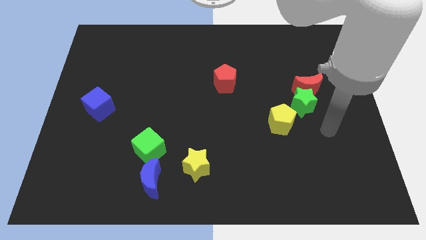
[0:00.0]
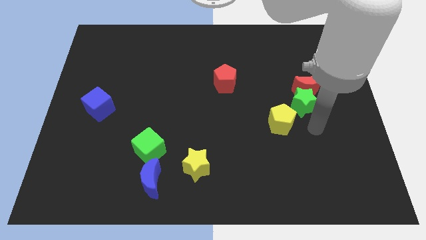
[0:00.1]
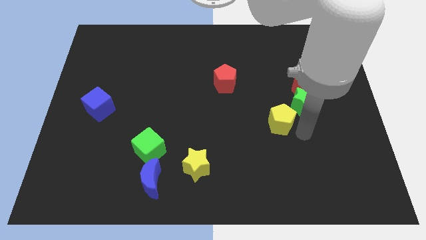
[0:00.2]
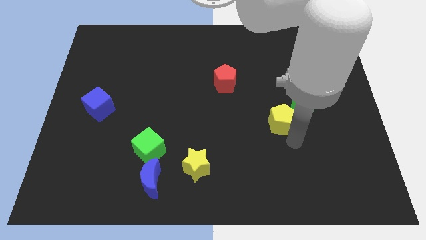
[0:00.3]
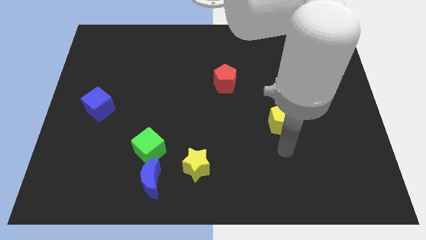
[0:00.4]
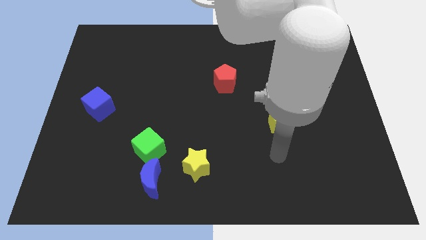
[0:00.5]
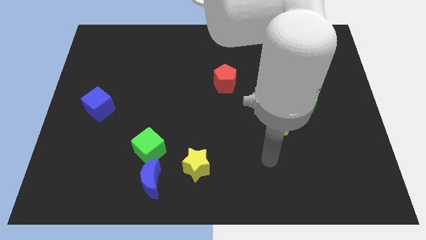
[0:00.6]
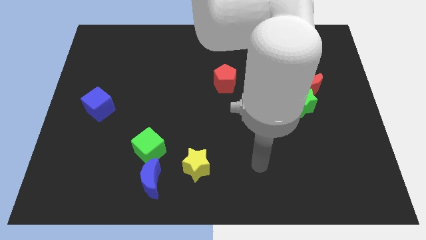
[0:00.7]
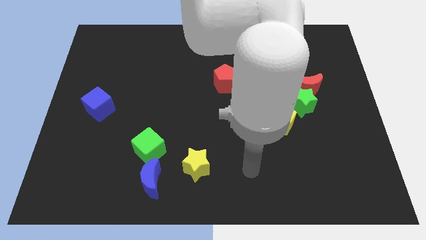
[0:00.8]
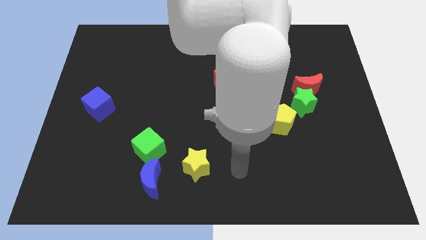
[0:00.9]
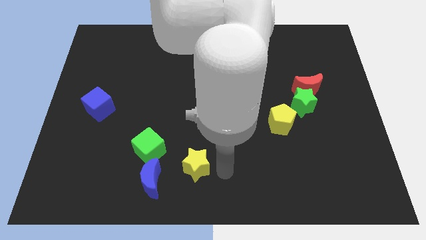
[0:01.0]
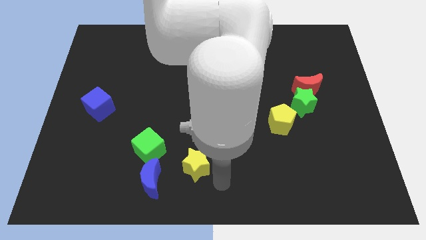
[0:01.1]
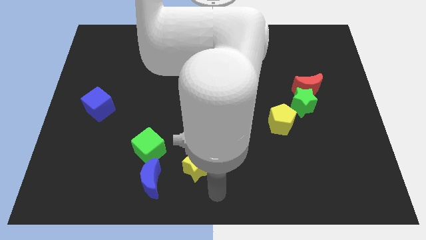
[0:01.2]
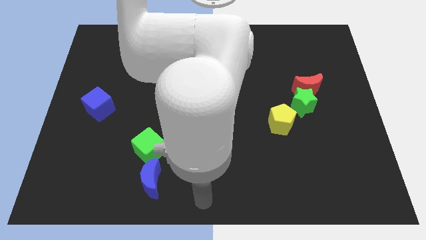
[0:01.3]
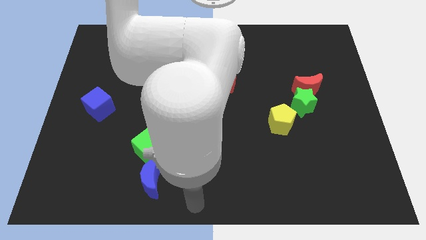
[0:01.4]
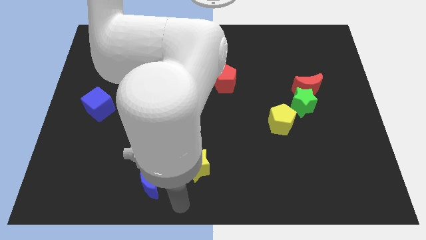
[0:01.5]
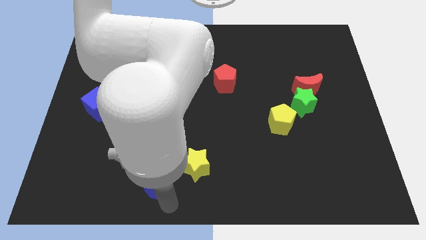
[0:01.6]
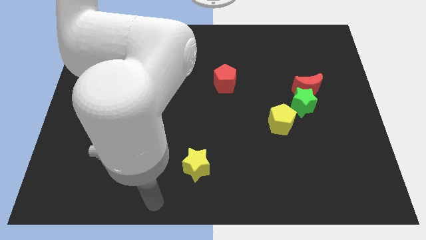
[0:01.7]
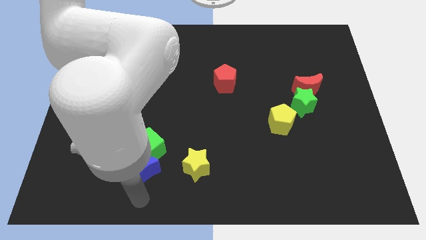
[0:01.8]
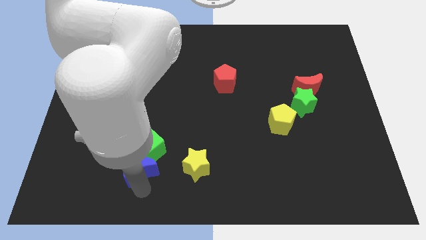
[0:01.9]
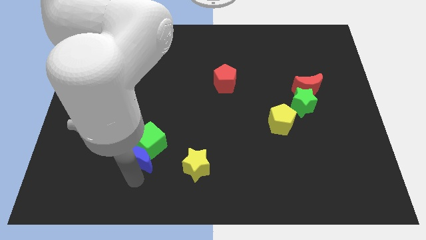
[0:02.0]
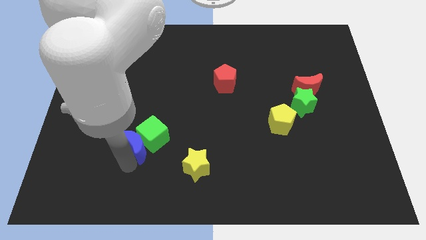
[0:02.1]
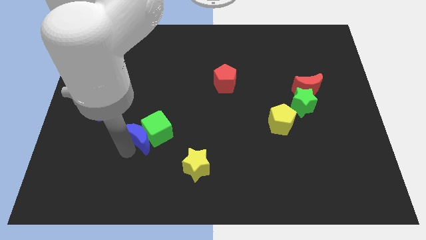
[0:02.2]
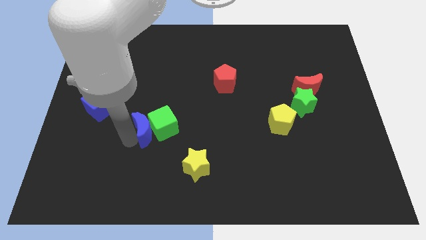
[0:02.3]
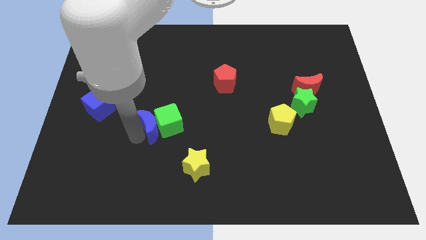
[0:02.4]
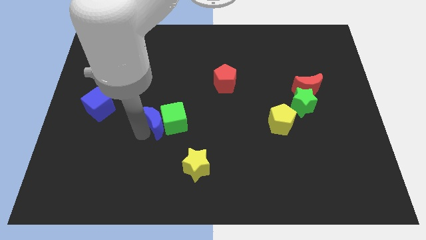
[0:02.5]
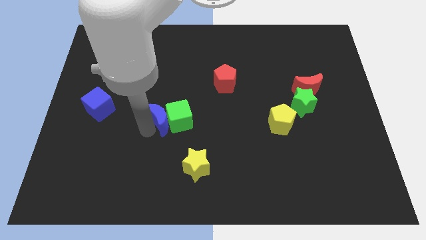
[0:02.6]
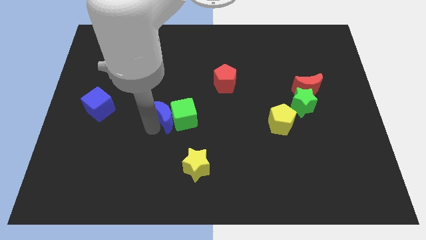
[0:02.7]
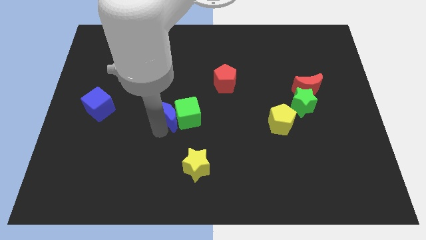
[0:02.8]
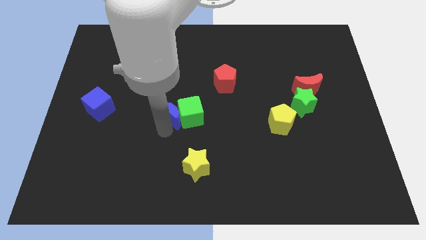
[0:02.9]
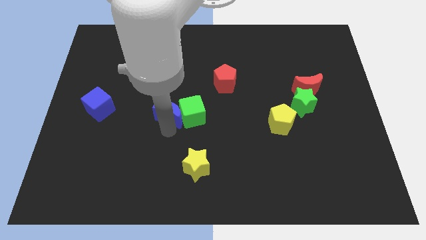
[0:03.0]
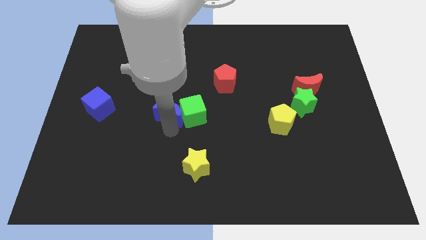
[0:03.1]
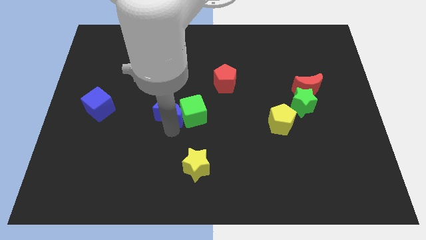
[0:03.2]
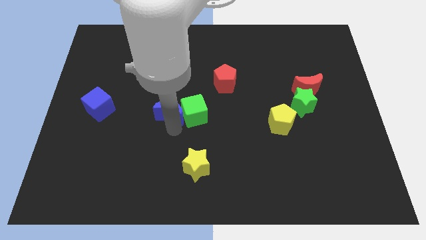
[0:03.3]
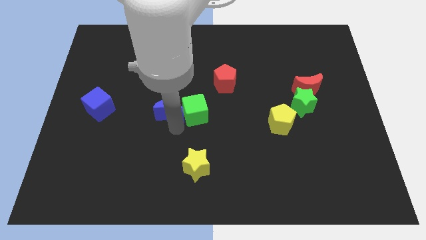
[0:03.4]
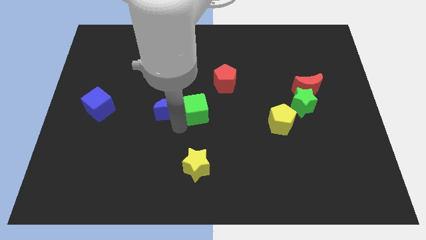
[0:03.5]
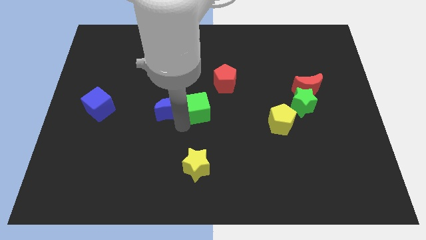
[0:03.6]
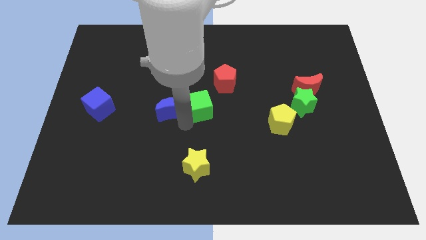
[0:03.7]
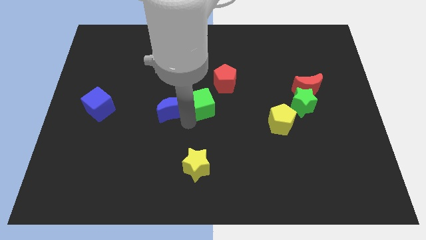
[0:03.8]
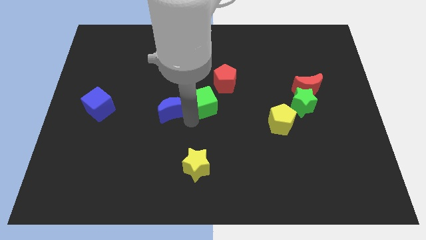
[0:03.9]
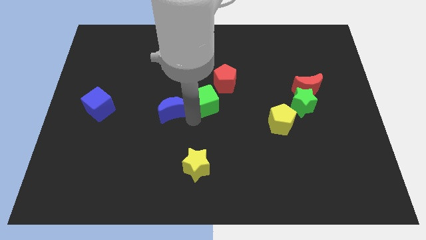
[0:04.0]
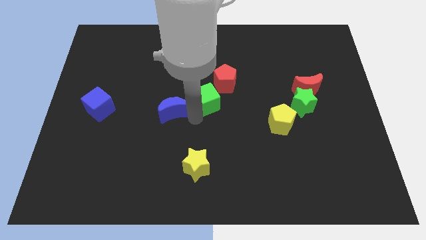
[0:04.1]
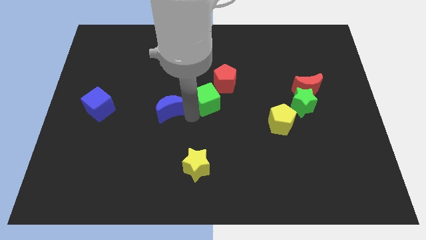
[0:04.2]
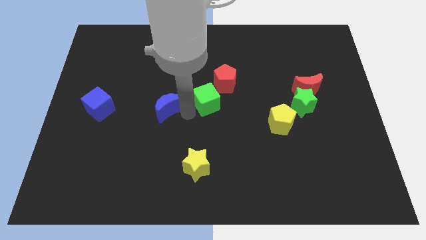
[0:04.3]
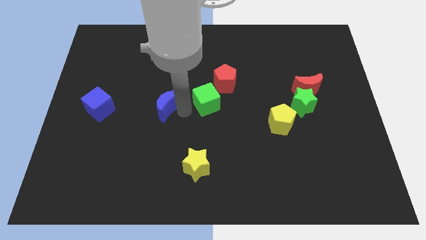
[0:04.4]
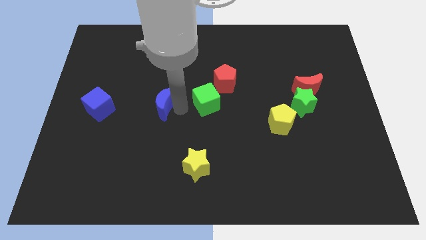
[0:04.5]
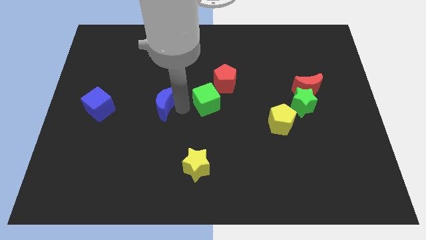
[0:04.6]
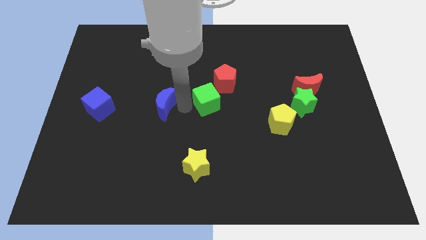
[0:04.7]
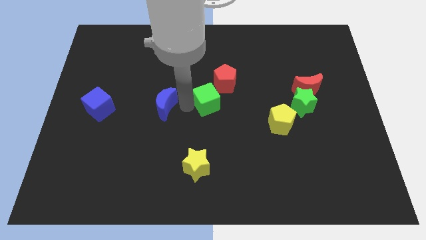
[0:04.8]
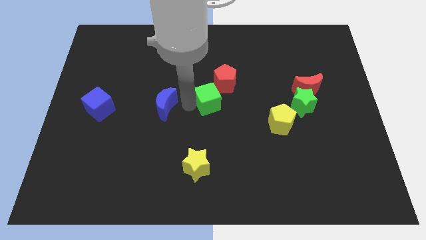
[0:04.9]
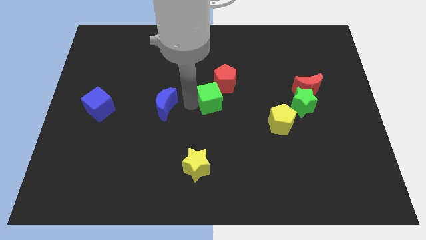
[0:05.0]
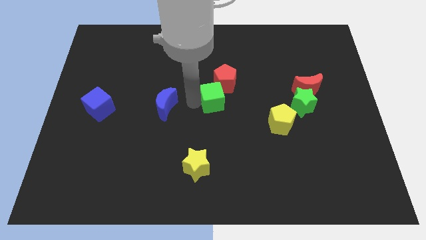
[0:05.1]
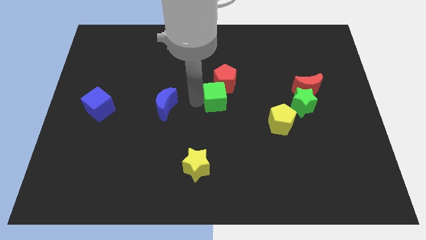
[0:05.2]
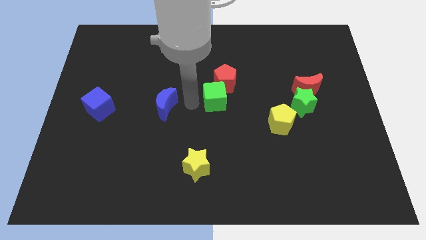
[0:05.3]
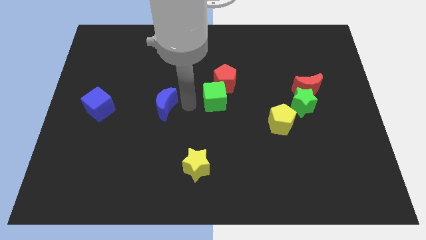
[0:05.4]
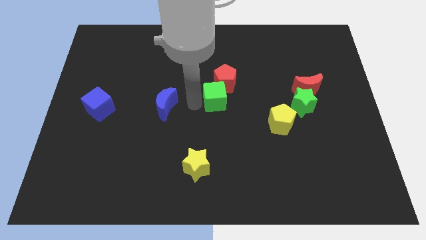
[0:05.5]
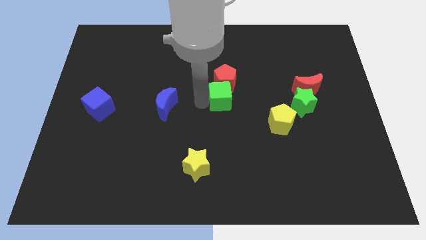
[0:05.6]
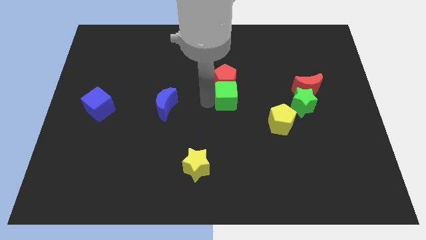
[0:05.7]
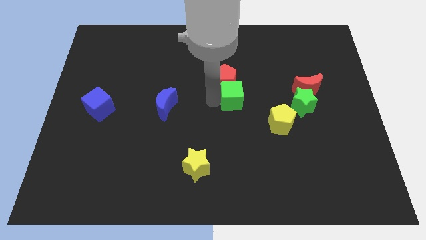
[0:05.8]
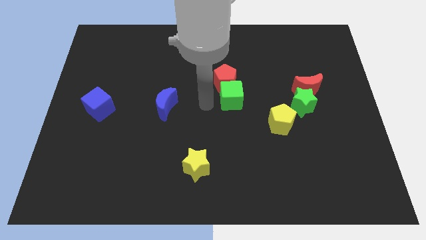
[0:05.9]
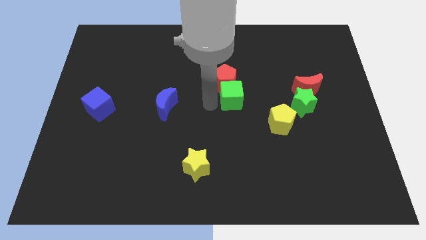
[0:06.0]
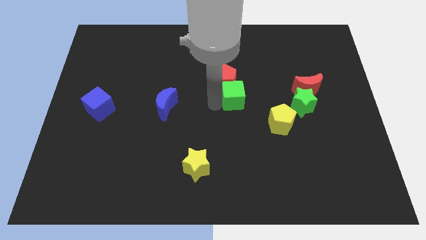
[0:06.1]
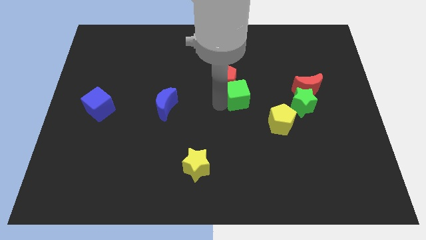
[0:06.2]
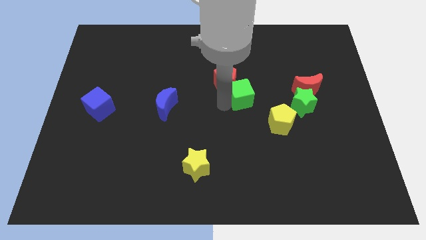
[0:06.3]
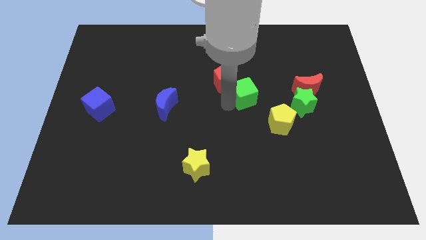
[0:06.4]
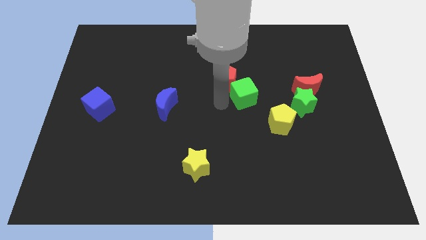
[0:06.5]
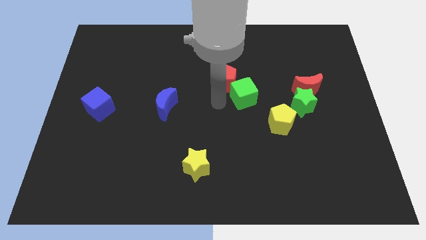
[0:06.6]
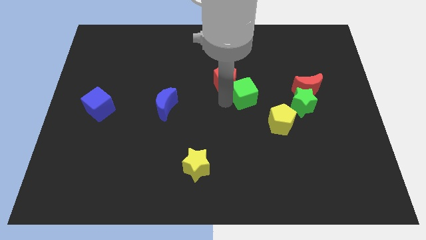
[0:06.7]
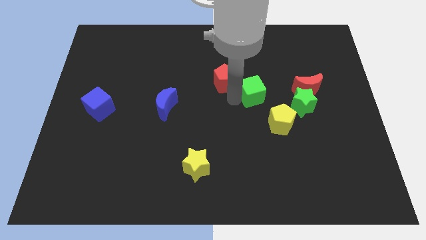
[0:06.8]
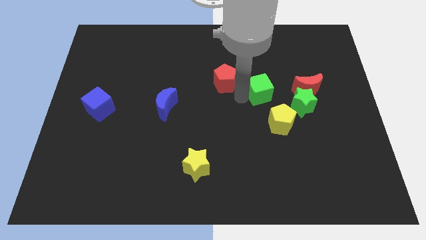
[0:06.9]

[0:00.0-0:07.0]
push the green cube to the top of the yellow pentagon
